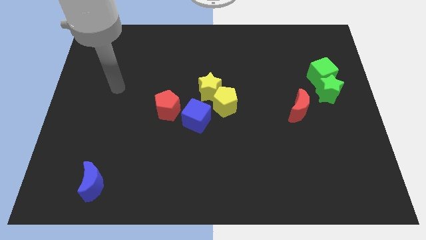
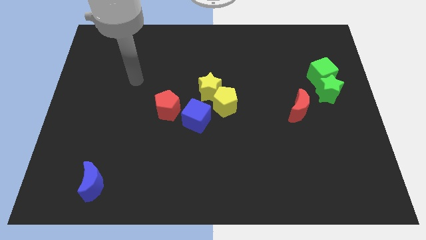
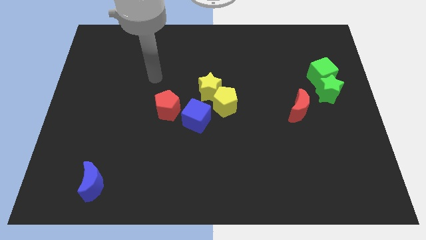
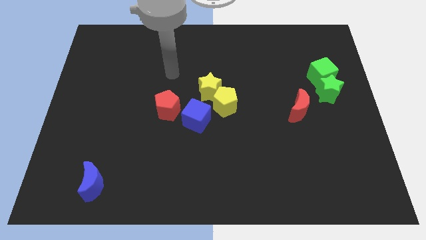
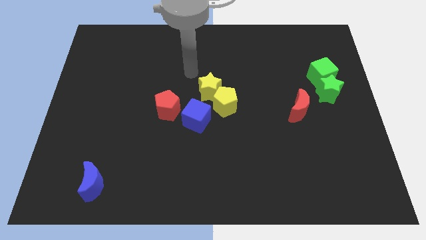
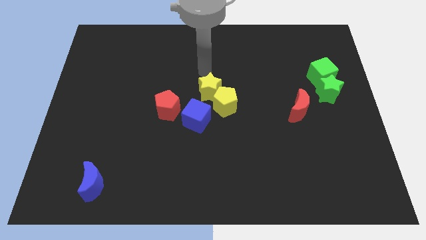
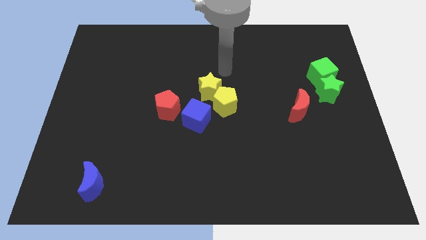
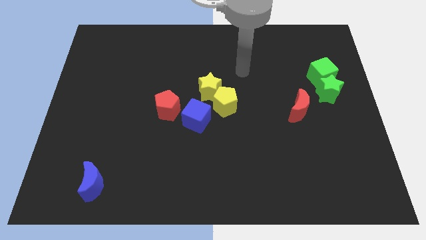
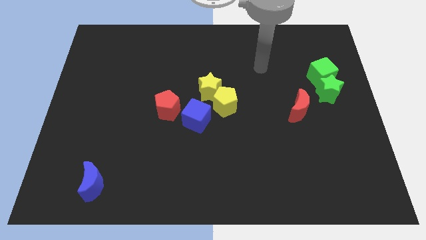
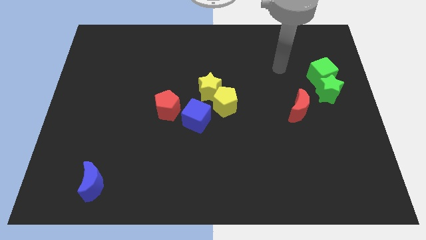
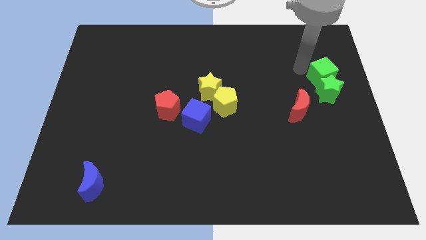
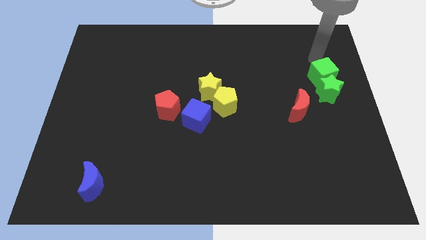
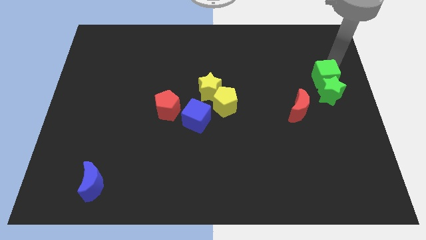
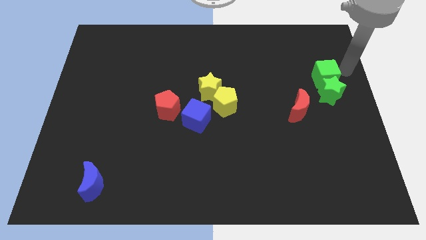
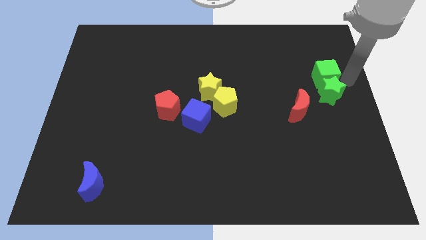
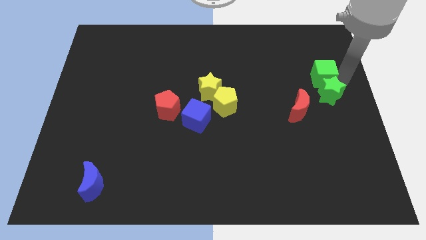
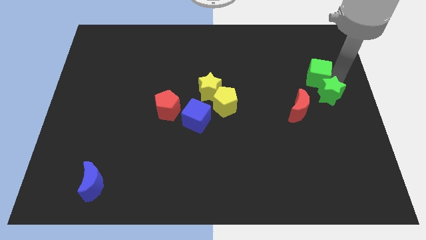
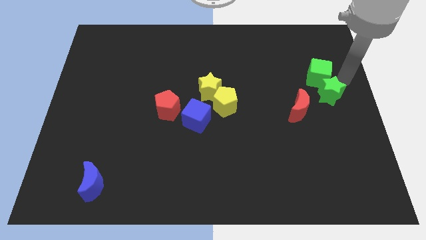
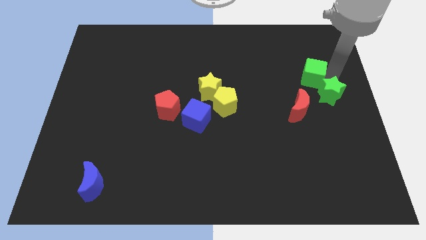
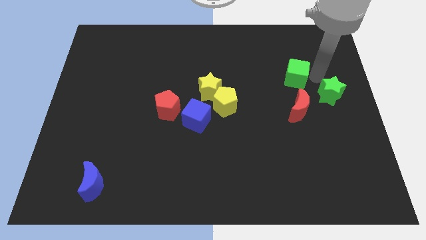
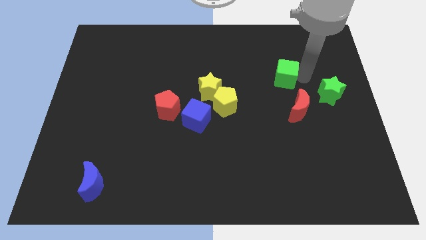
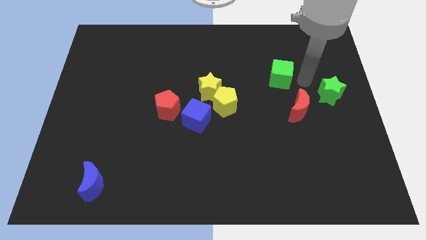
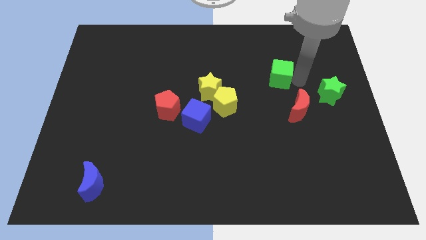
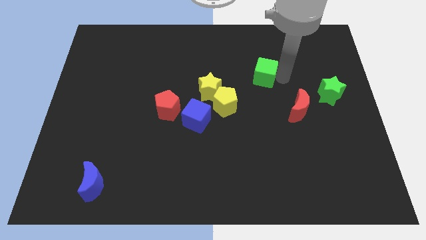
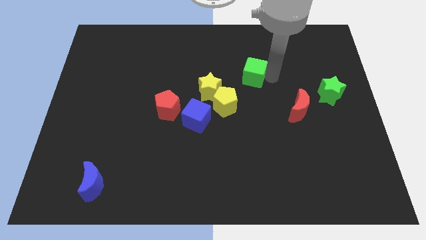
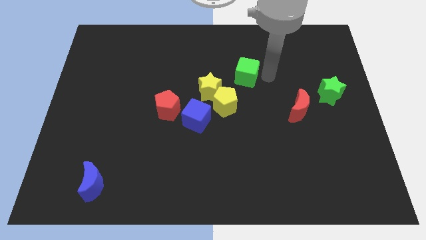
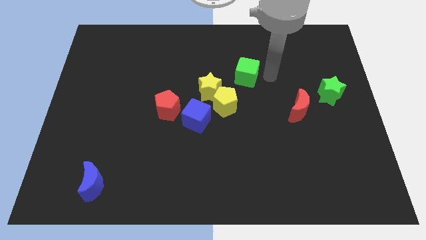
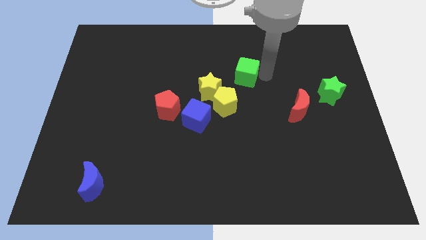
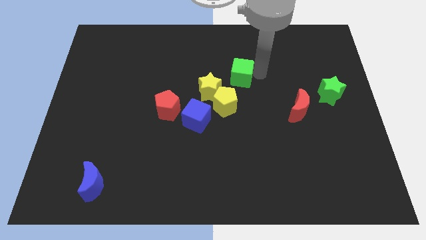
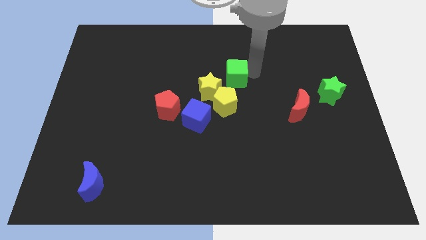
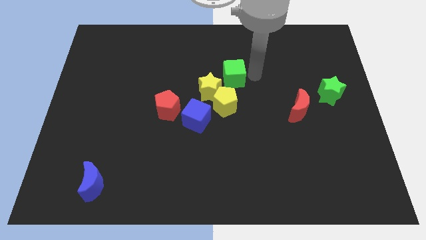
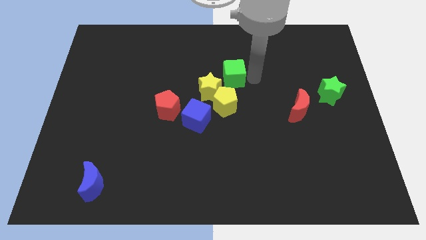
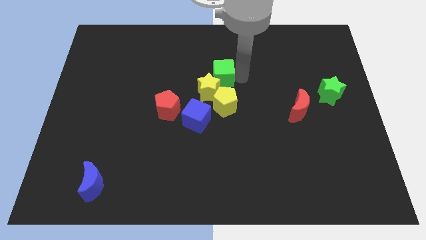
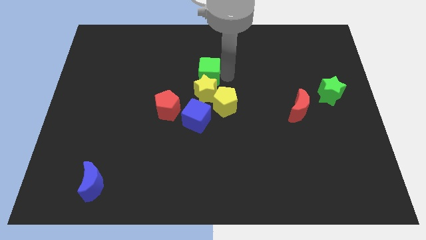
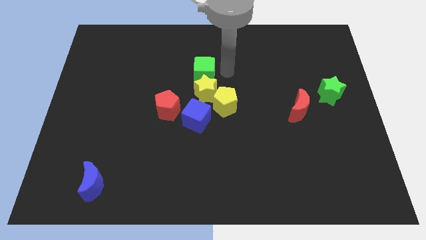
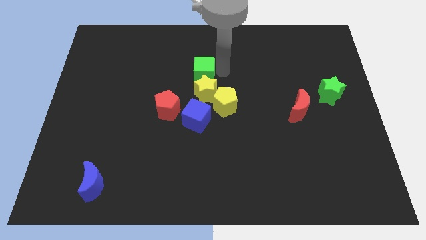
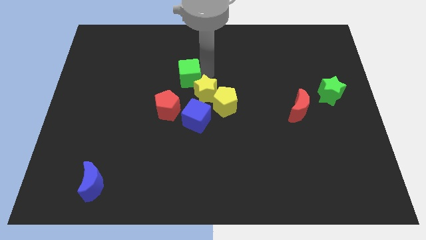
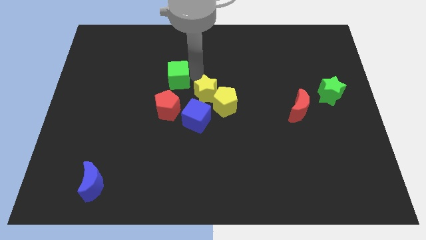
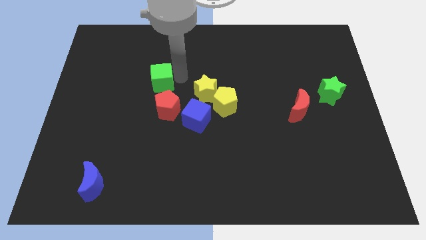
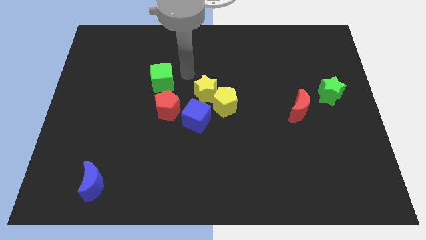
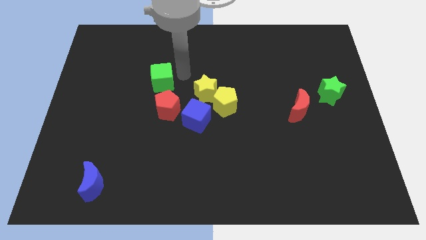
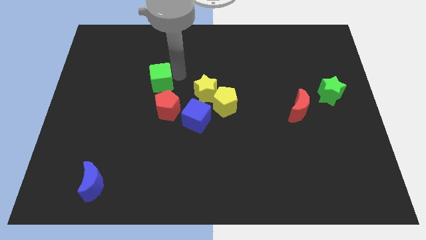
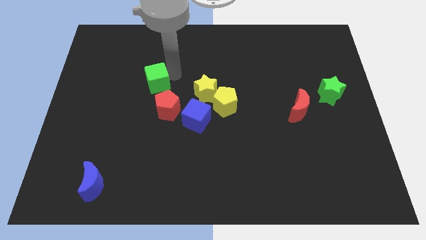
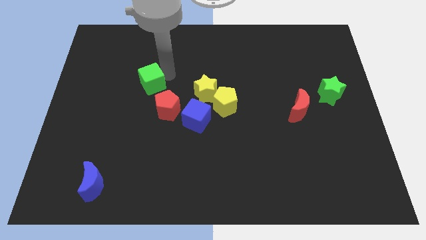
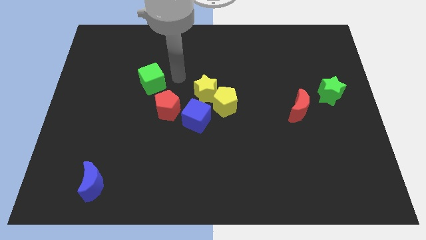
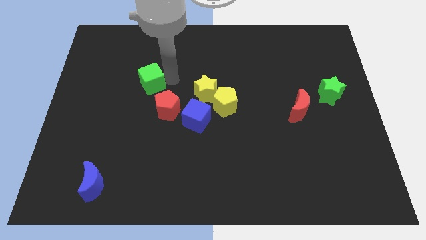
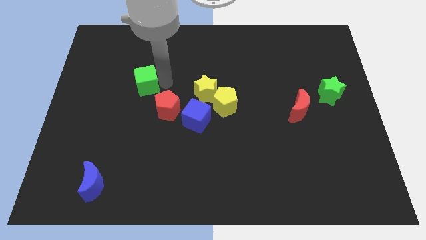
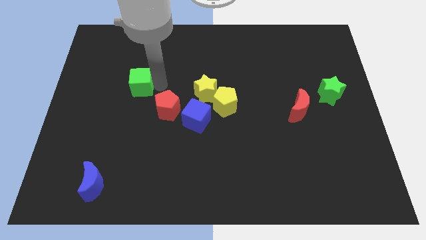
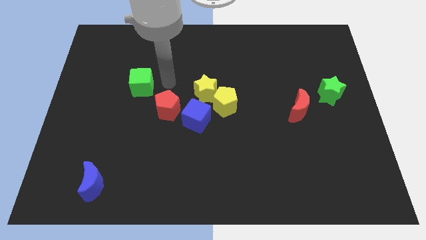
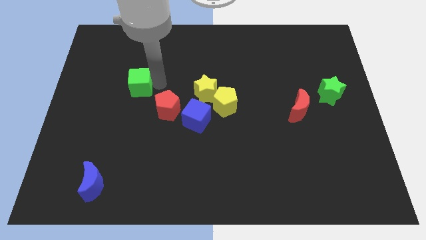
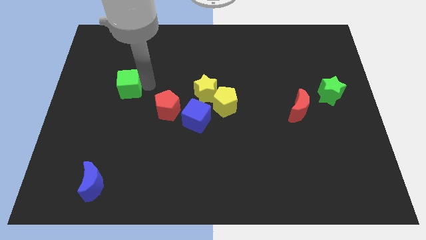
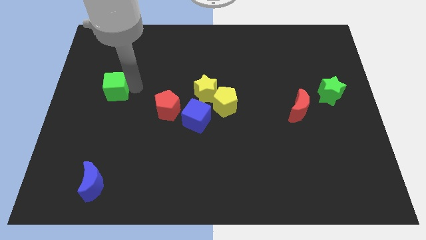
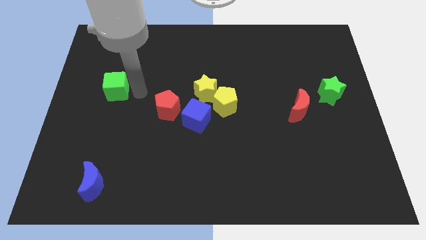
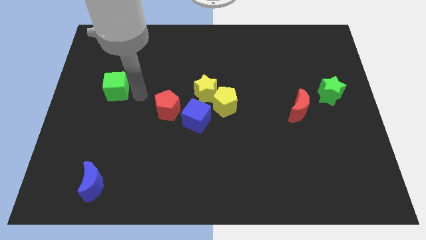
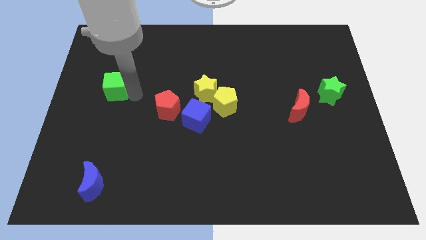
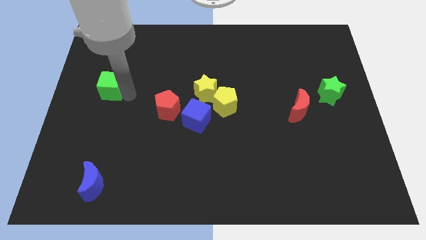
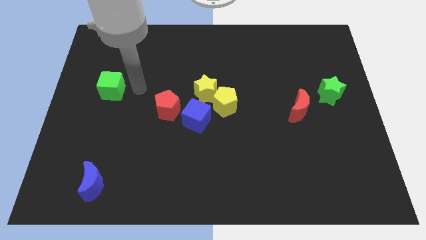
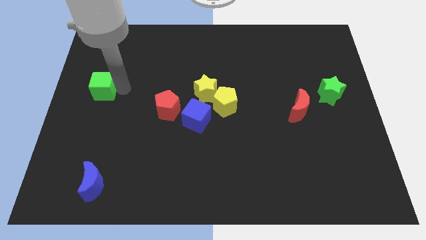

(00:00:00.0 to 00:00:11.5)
move the green cube to the left side of the board
